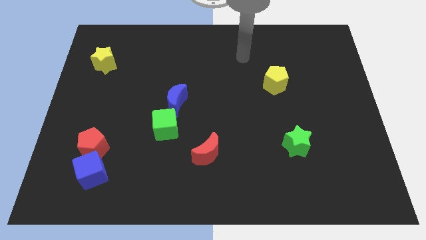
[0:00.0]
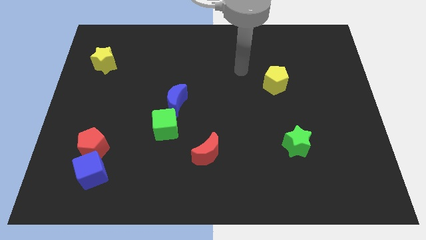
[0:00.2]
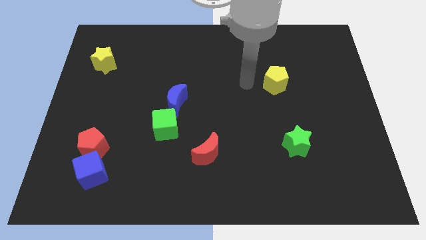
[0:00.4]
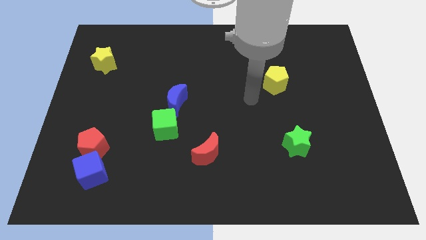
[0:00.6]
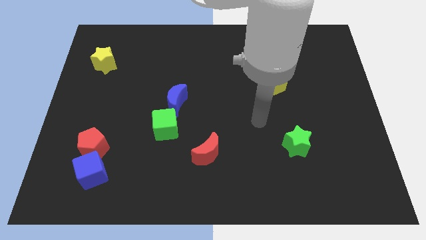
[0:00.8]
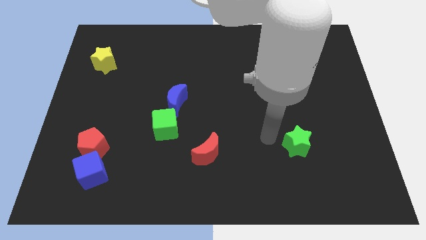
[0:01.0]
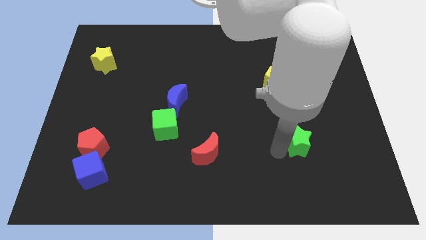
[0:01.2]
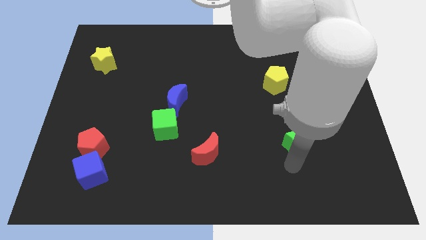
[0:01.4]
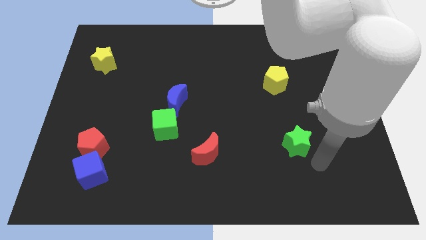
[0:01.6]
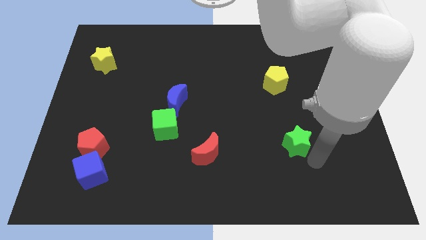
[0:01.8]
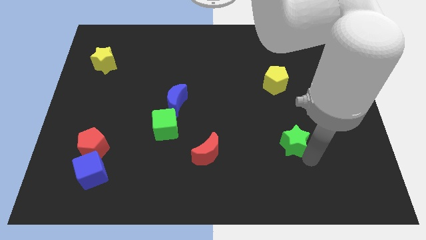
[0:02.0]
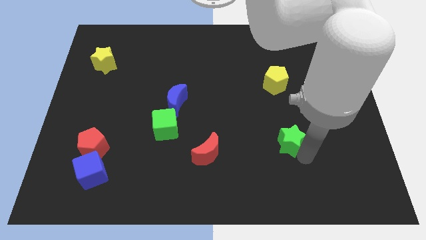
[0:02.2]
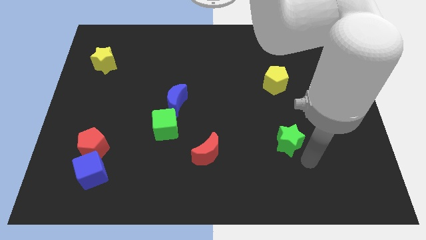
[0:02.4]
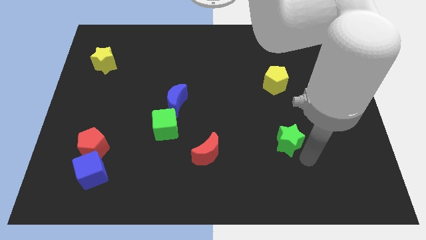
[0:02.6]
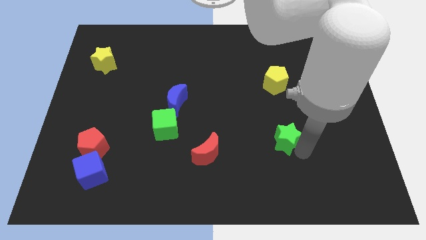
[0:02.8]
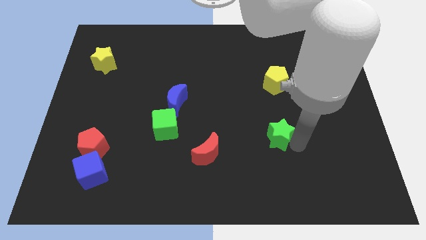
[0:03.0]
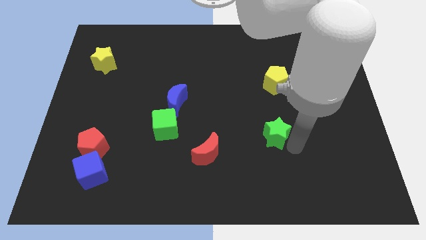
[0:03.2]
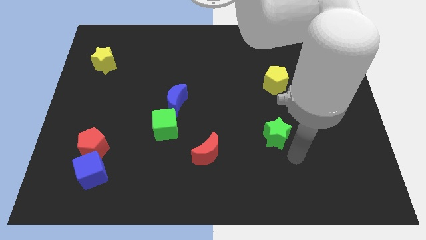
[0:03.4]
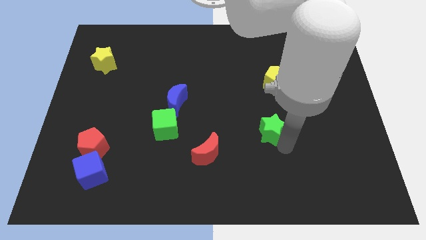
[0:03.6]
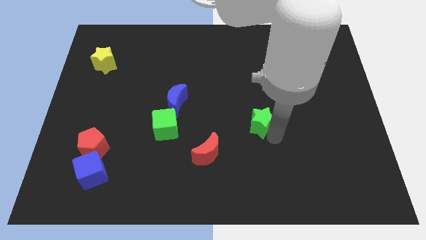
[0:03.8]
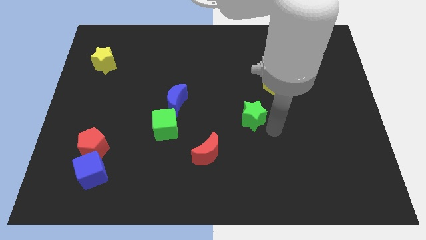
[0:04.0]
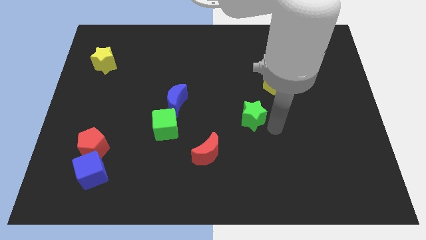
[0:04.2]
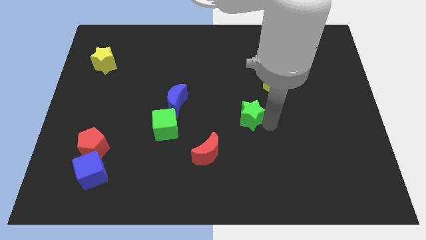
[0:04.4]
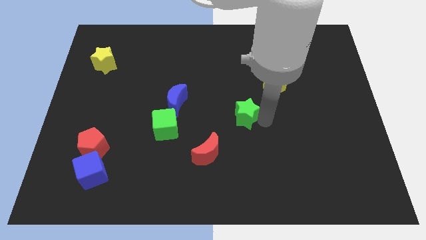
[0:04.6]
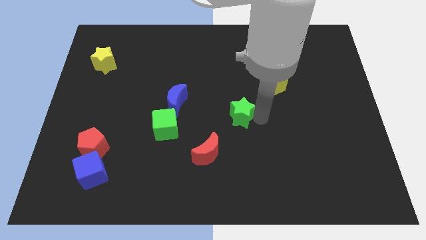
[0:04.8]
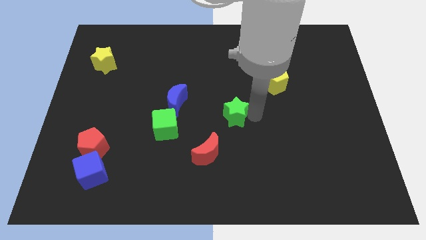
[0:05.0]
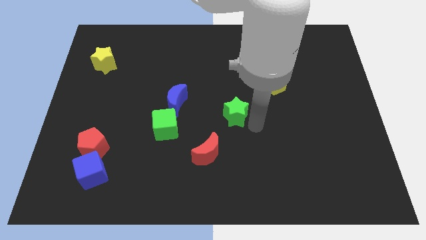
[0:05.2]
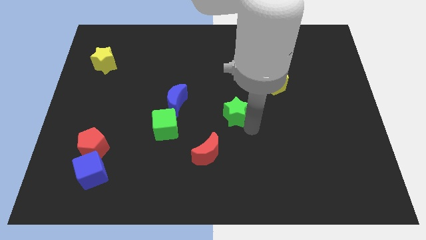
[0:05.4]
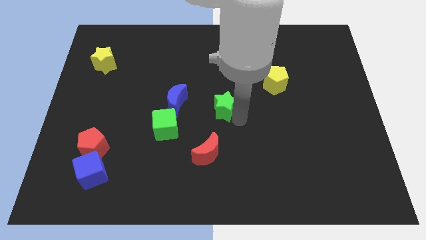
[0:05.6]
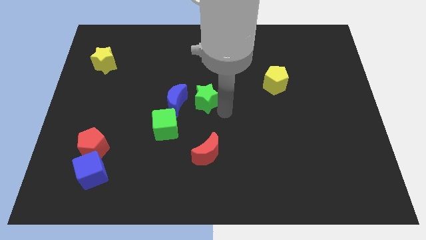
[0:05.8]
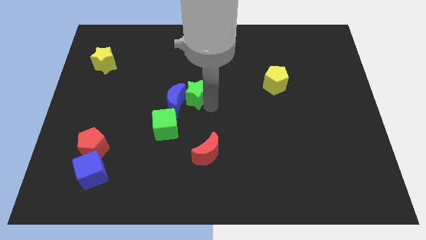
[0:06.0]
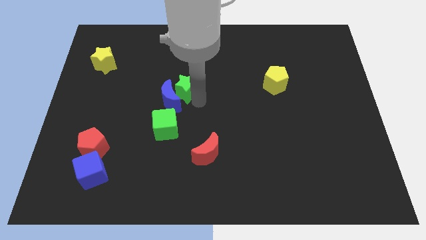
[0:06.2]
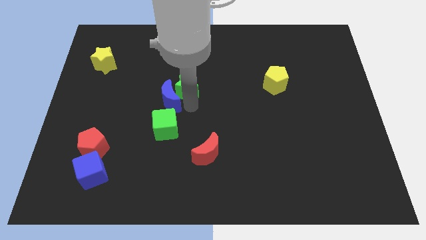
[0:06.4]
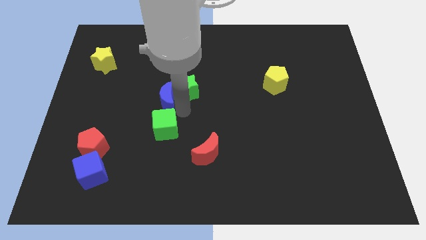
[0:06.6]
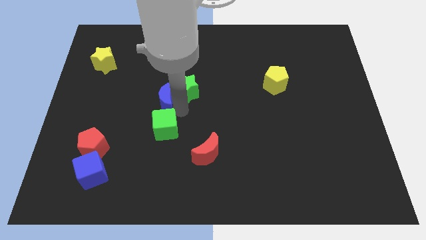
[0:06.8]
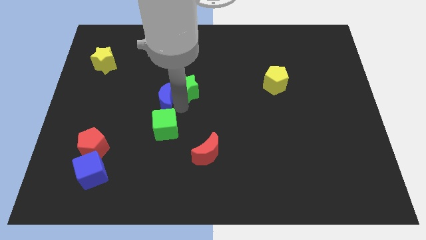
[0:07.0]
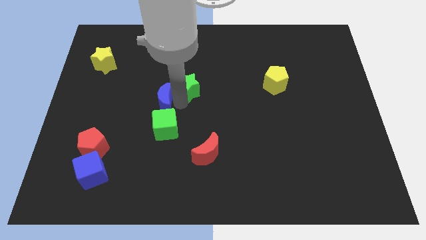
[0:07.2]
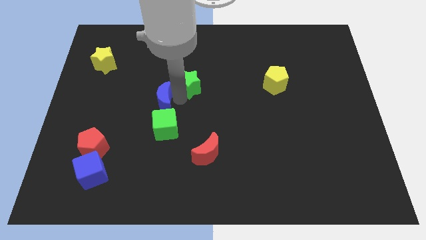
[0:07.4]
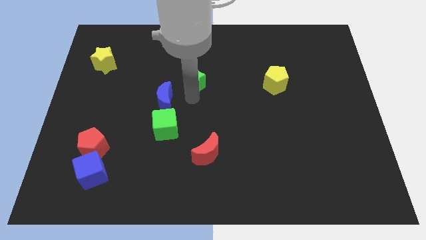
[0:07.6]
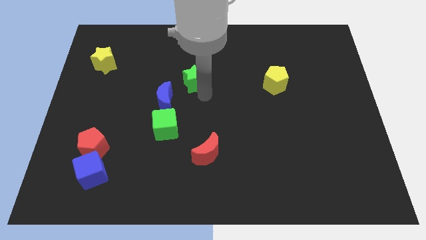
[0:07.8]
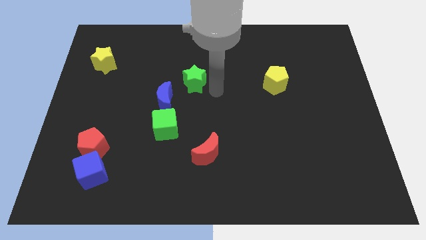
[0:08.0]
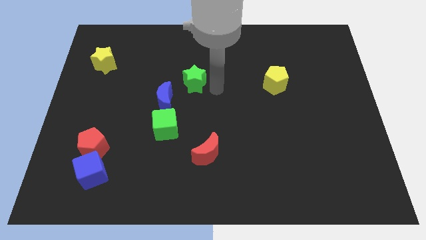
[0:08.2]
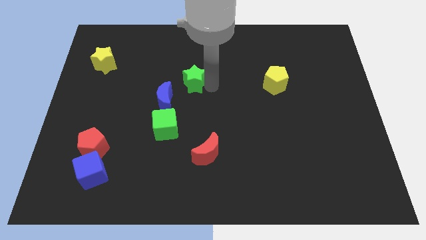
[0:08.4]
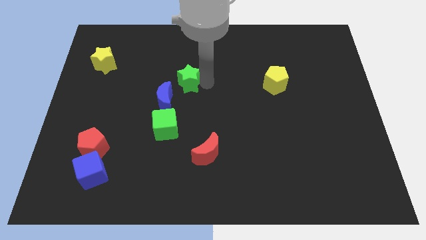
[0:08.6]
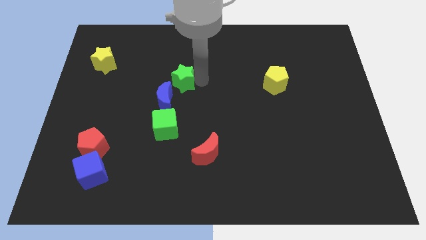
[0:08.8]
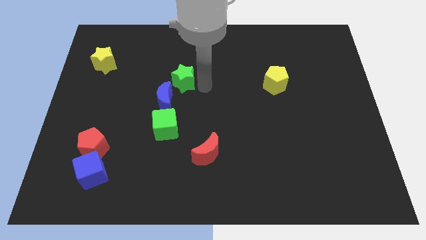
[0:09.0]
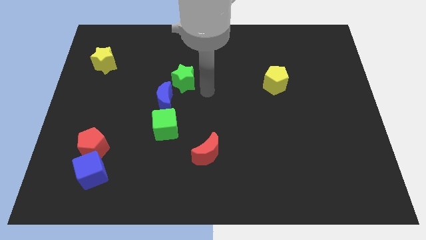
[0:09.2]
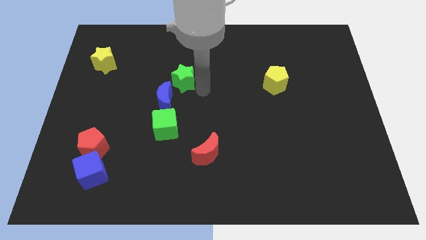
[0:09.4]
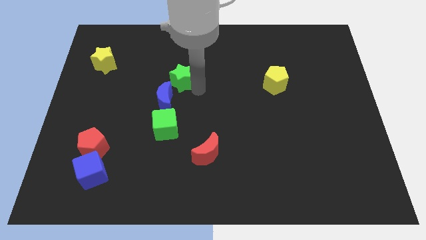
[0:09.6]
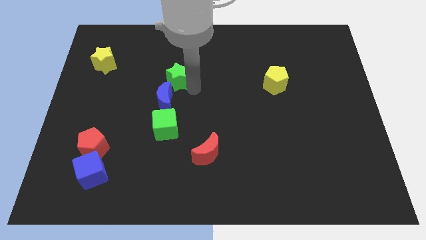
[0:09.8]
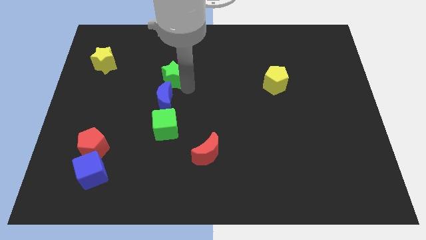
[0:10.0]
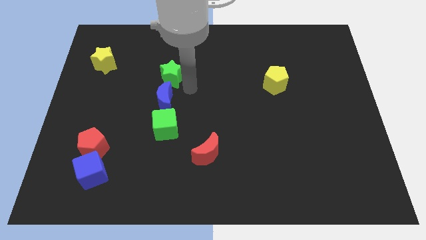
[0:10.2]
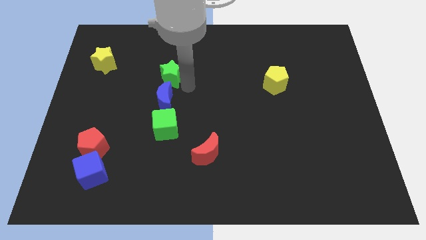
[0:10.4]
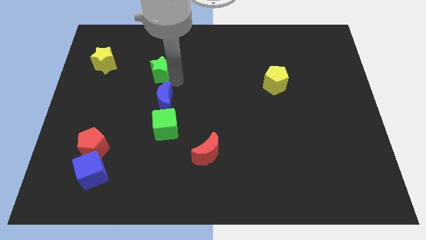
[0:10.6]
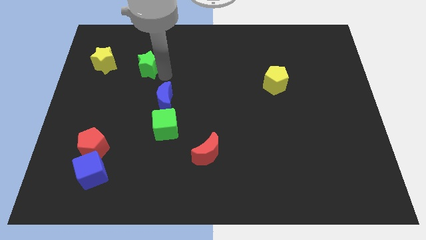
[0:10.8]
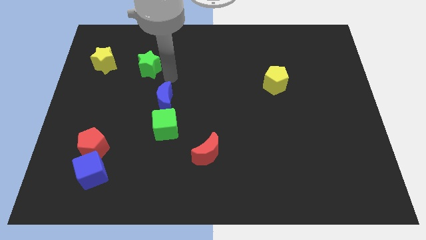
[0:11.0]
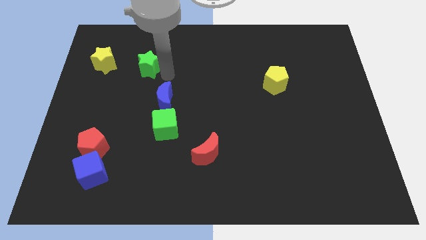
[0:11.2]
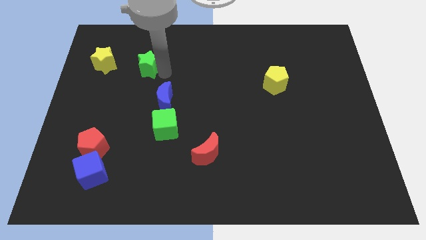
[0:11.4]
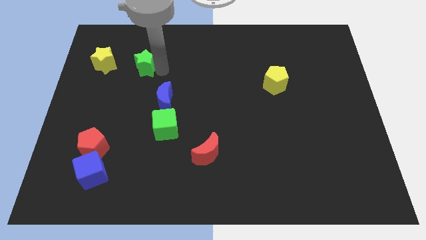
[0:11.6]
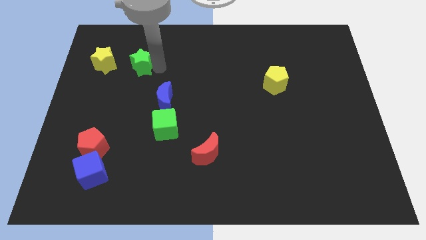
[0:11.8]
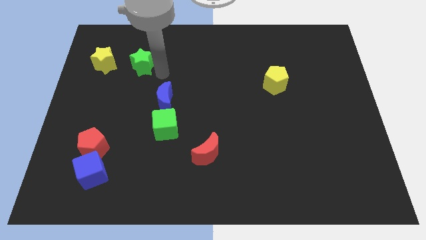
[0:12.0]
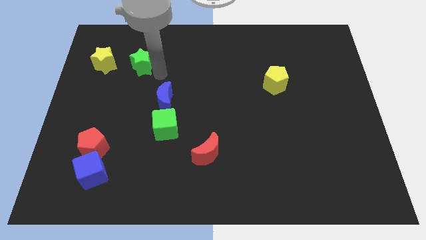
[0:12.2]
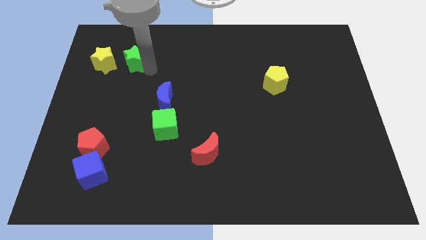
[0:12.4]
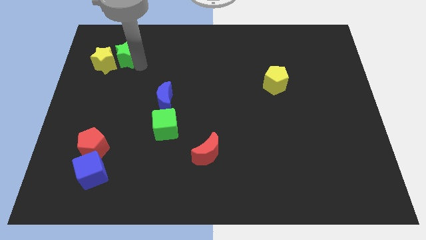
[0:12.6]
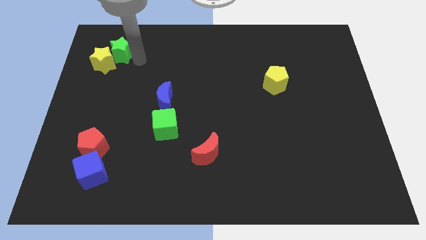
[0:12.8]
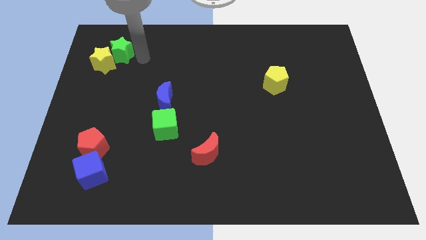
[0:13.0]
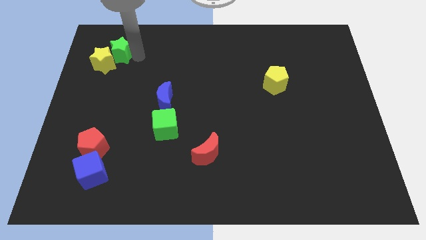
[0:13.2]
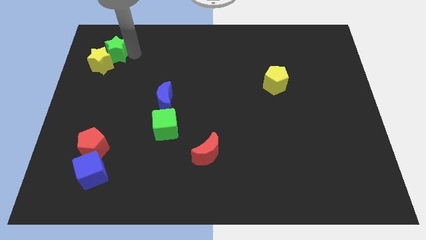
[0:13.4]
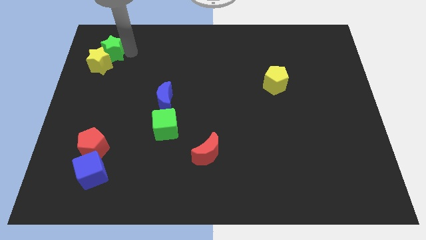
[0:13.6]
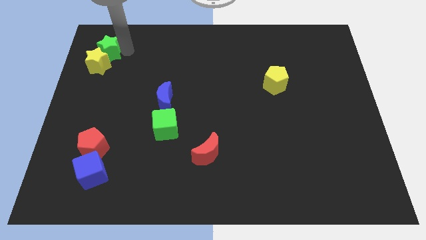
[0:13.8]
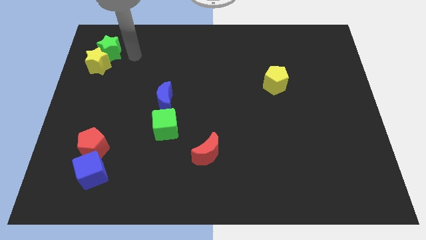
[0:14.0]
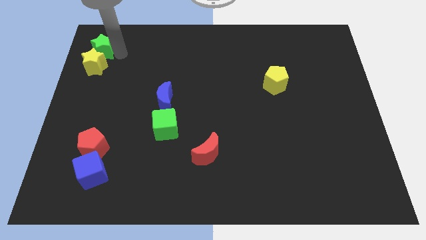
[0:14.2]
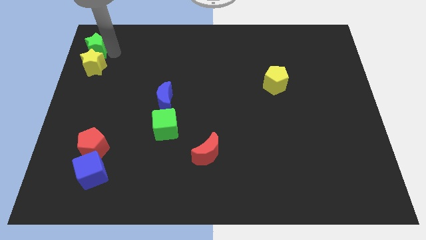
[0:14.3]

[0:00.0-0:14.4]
move the green star to the top left of the board
